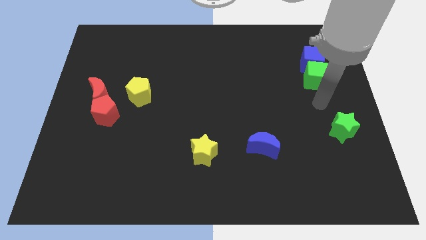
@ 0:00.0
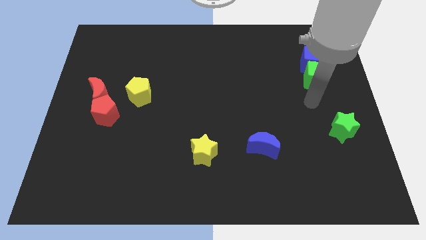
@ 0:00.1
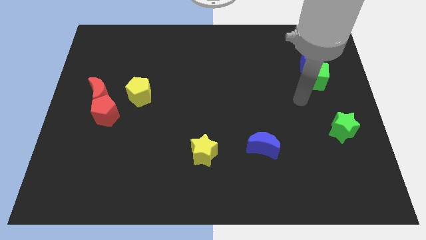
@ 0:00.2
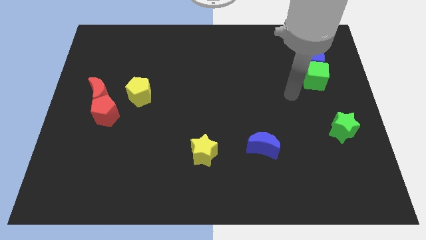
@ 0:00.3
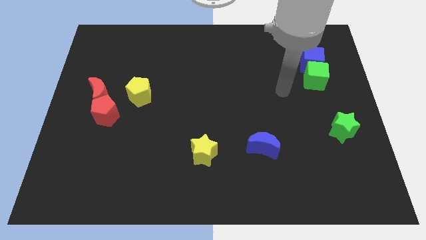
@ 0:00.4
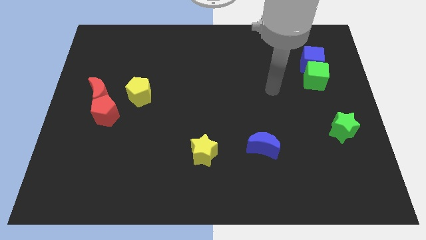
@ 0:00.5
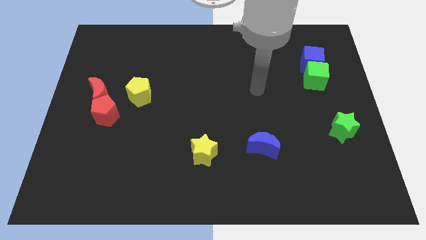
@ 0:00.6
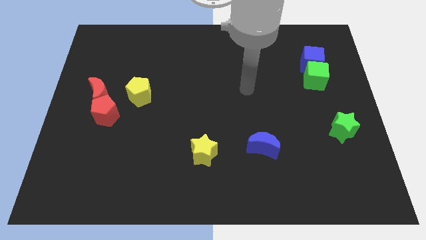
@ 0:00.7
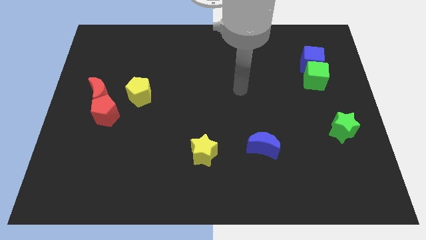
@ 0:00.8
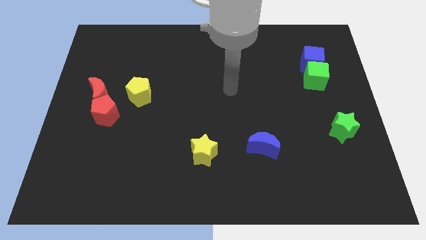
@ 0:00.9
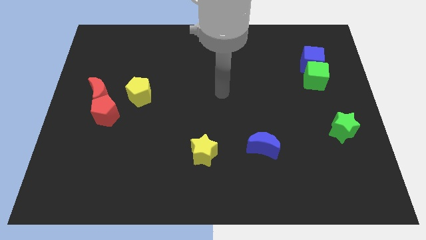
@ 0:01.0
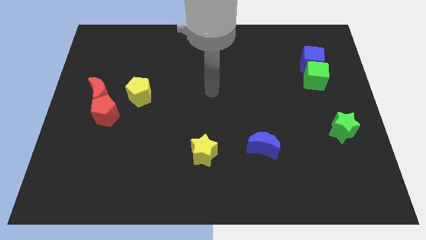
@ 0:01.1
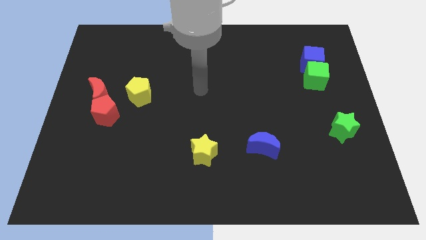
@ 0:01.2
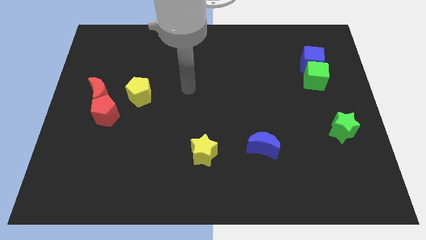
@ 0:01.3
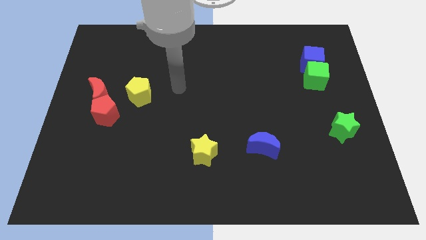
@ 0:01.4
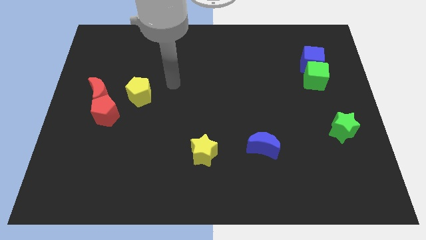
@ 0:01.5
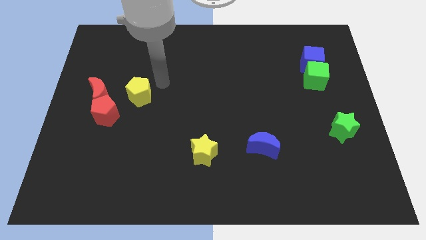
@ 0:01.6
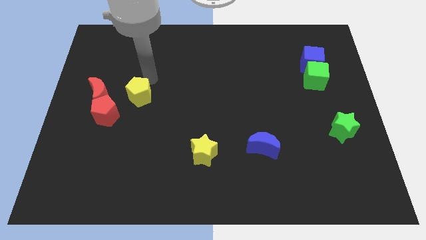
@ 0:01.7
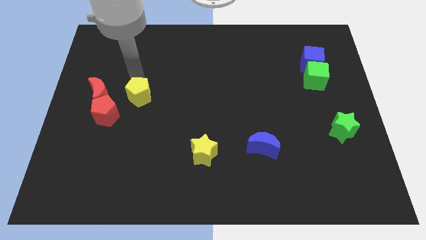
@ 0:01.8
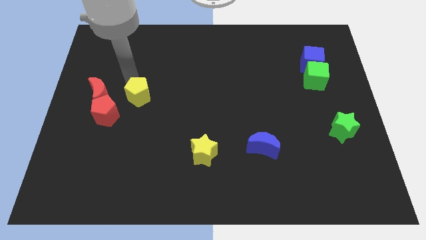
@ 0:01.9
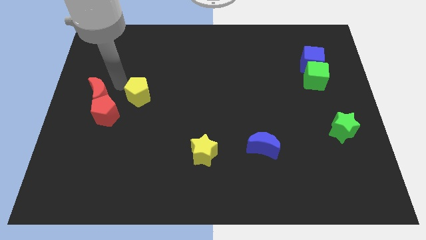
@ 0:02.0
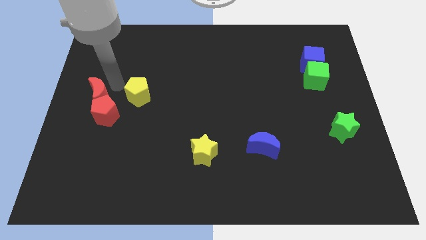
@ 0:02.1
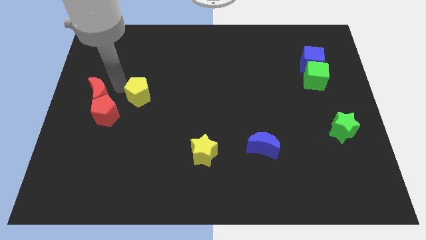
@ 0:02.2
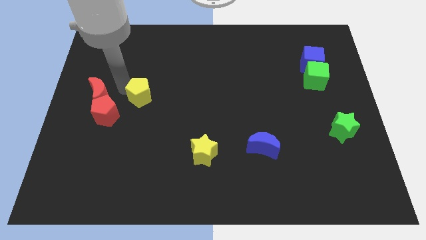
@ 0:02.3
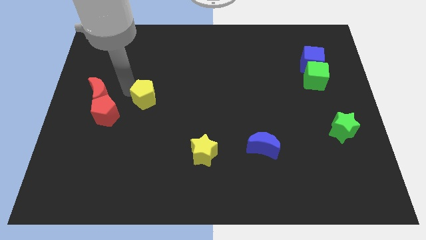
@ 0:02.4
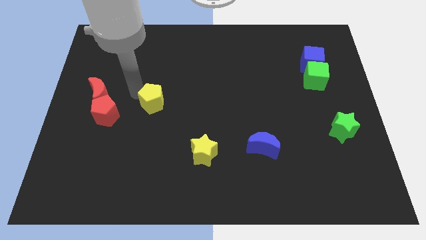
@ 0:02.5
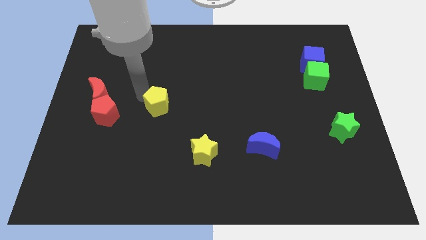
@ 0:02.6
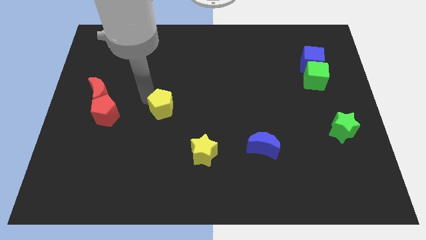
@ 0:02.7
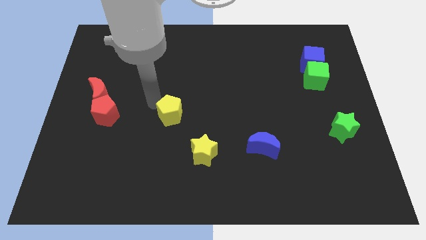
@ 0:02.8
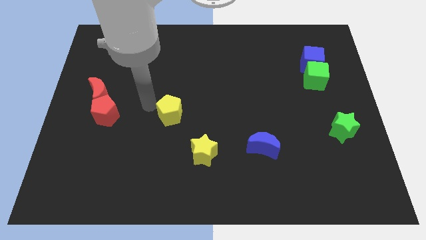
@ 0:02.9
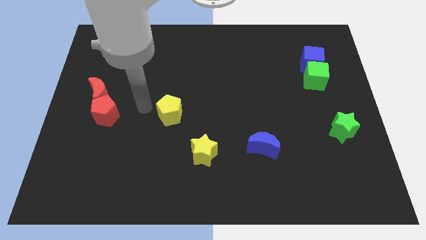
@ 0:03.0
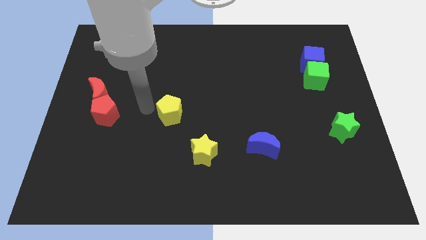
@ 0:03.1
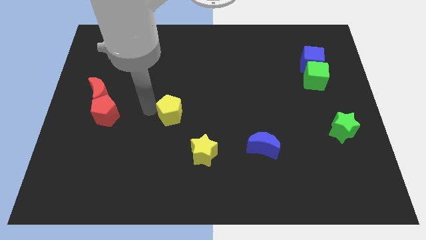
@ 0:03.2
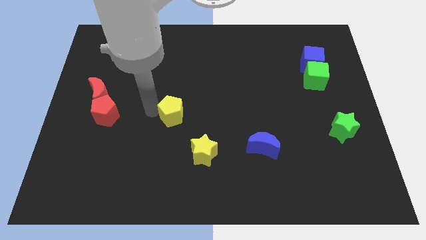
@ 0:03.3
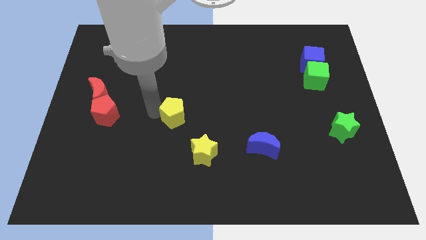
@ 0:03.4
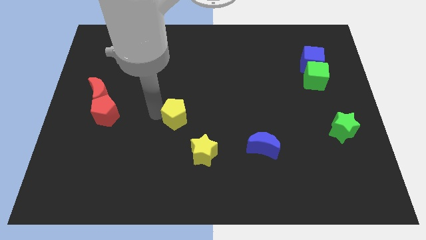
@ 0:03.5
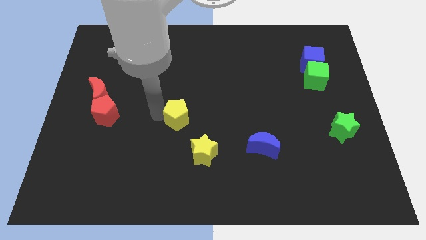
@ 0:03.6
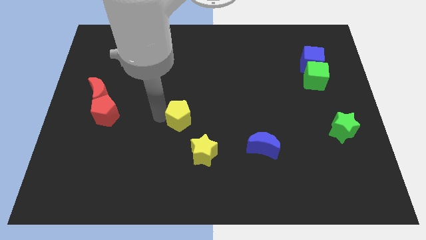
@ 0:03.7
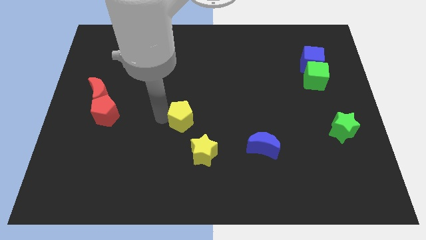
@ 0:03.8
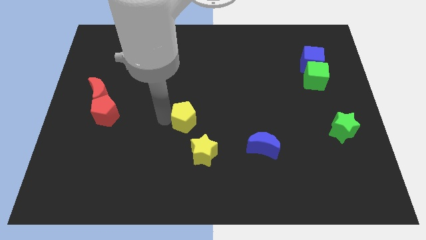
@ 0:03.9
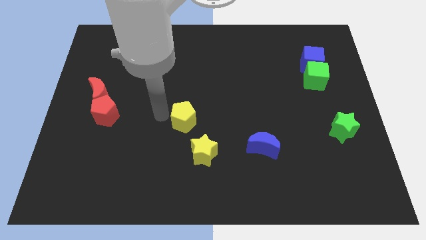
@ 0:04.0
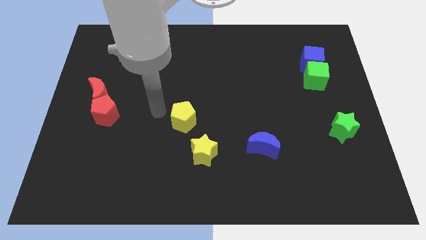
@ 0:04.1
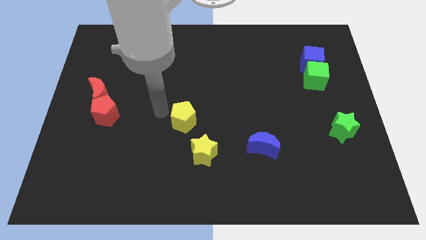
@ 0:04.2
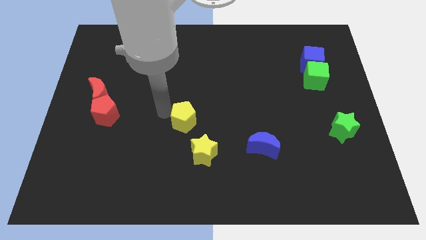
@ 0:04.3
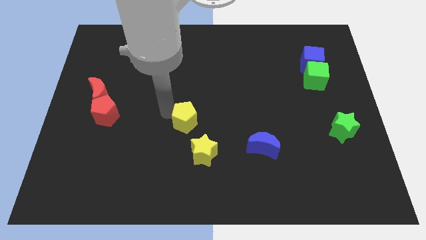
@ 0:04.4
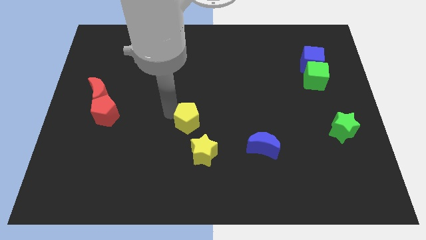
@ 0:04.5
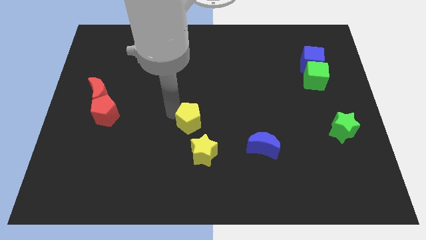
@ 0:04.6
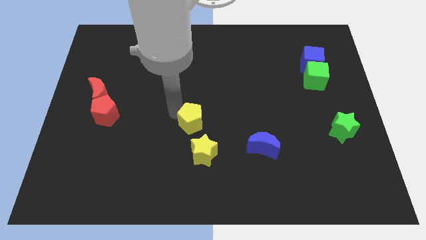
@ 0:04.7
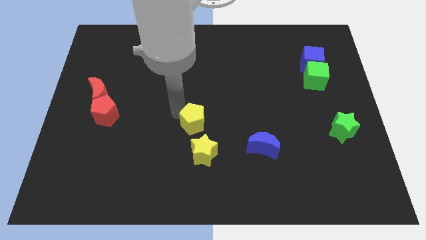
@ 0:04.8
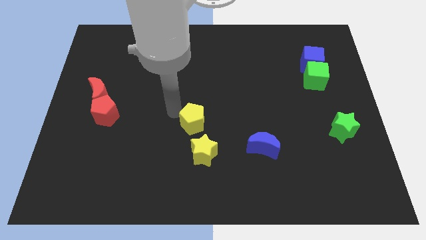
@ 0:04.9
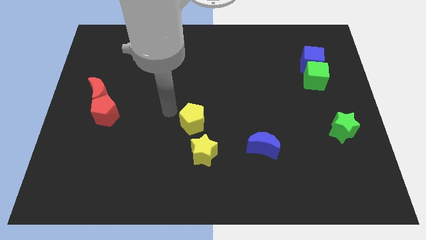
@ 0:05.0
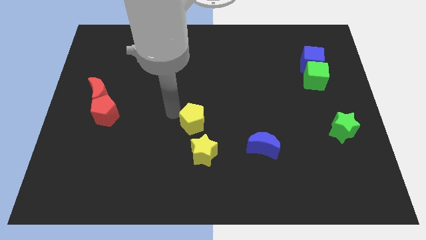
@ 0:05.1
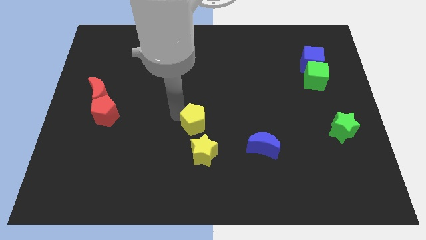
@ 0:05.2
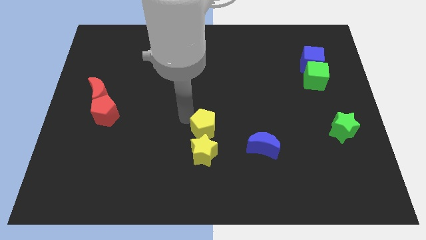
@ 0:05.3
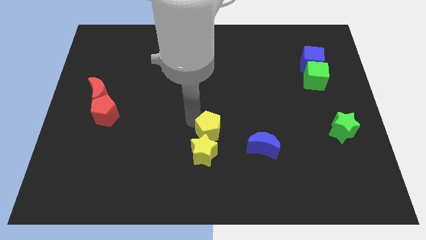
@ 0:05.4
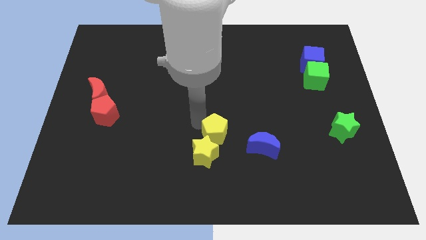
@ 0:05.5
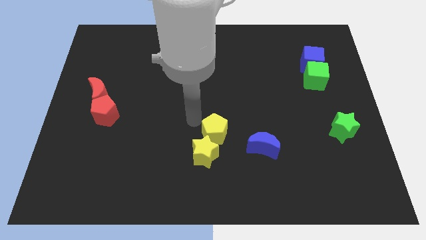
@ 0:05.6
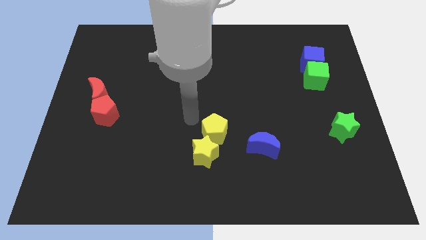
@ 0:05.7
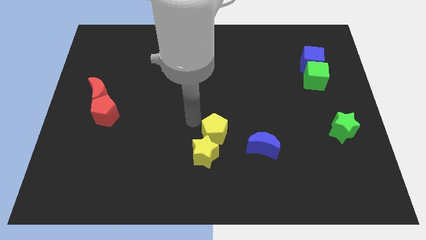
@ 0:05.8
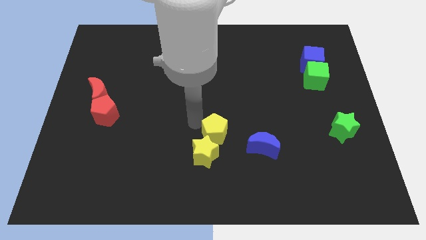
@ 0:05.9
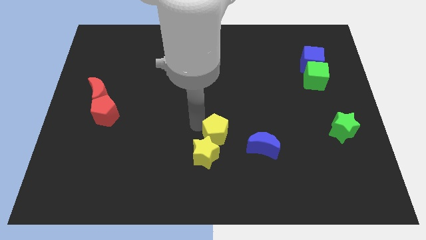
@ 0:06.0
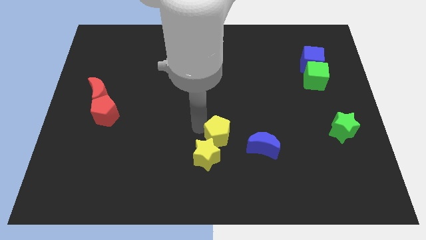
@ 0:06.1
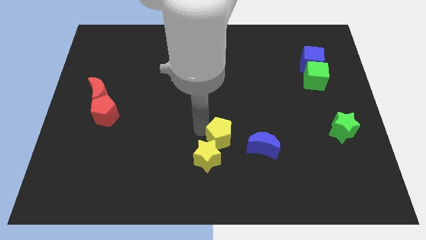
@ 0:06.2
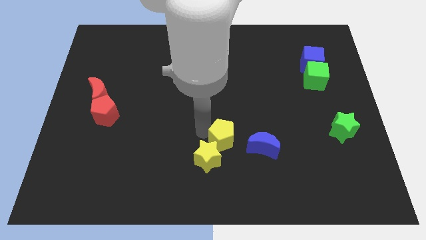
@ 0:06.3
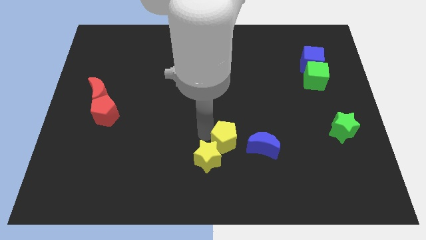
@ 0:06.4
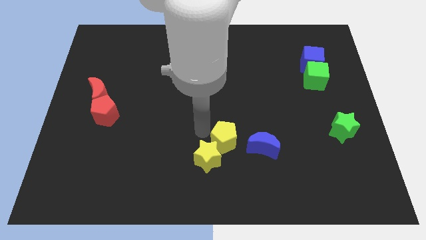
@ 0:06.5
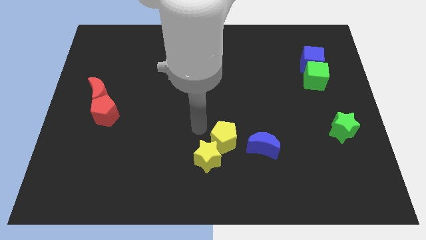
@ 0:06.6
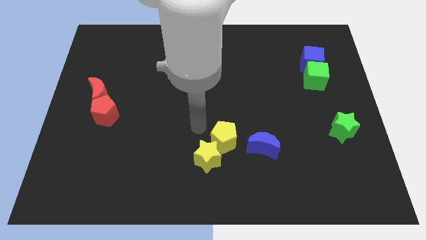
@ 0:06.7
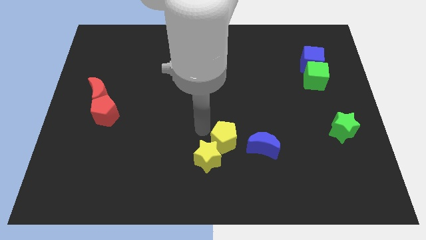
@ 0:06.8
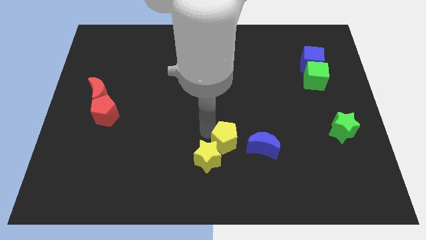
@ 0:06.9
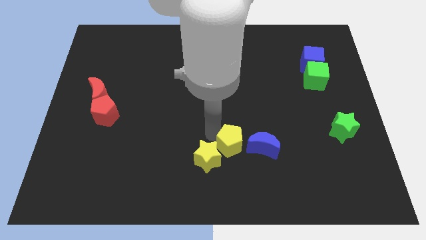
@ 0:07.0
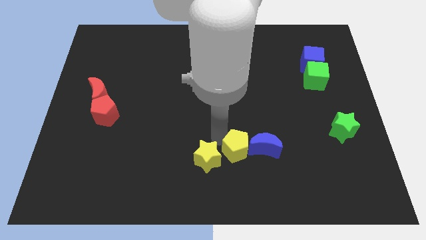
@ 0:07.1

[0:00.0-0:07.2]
move the yellow pentagon close to the blue moon

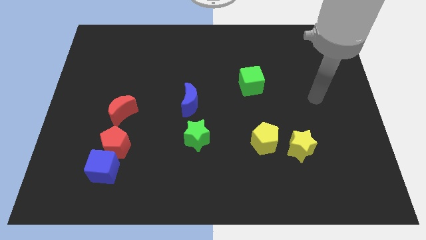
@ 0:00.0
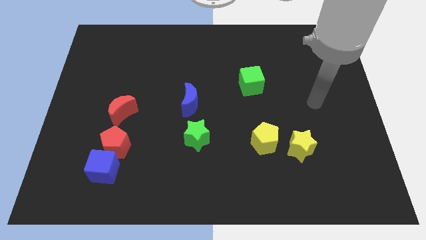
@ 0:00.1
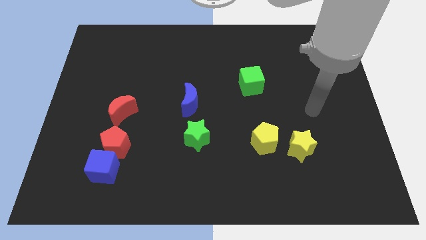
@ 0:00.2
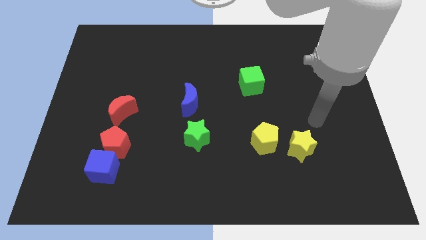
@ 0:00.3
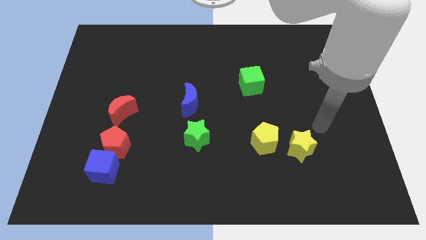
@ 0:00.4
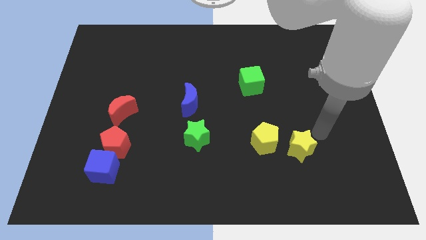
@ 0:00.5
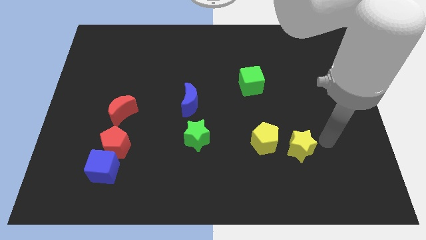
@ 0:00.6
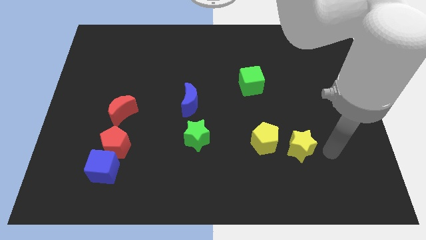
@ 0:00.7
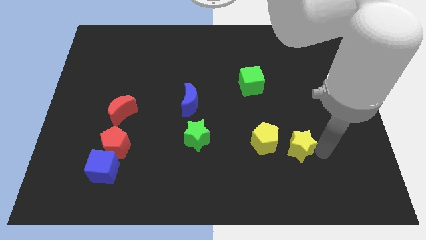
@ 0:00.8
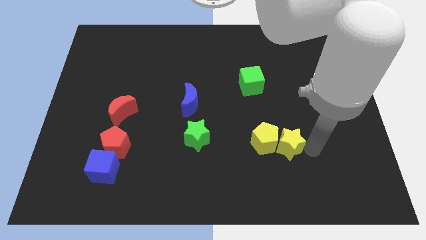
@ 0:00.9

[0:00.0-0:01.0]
put the yellow star close to the yellow pentagon
